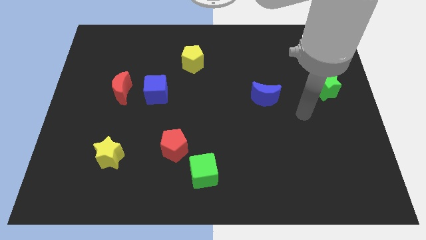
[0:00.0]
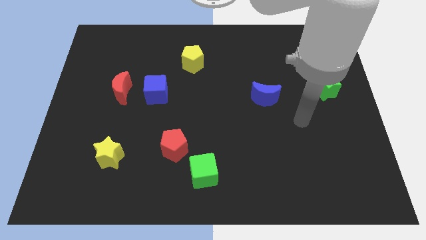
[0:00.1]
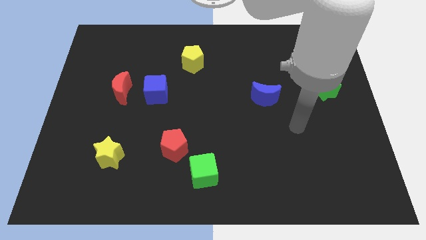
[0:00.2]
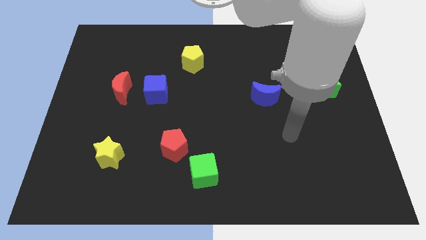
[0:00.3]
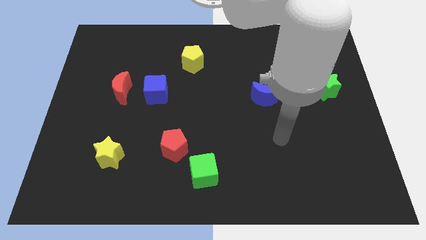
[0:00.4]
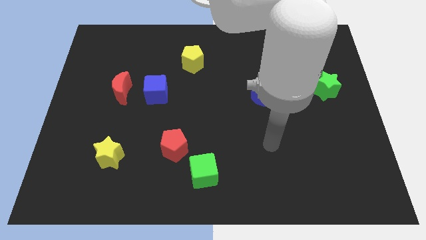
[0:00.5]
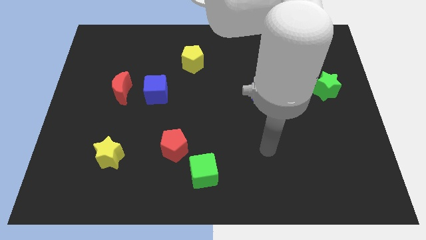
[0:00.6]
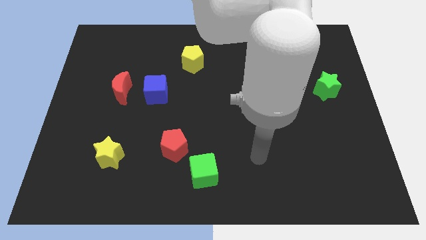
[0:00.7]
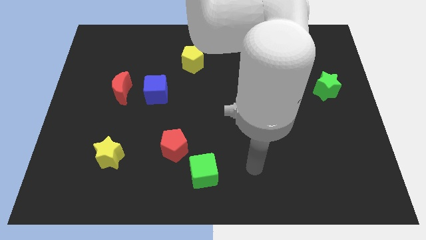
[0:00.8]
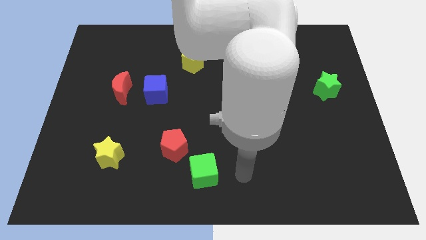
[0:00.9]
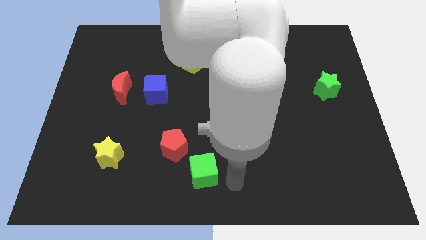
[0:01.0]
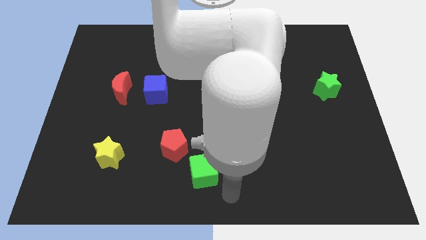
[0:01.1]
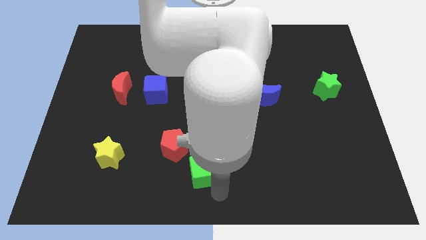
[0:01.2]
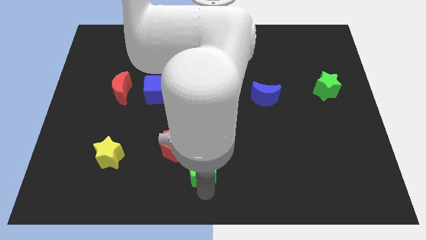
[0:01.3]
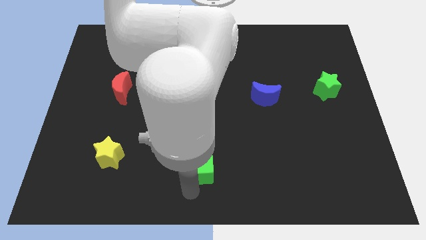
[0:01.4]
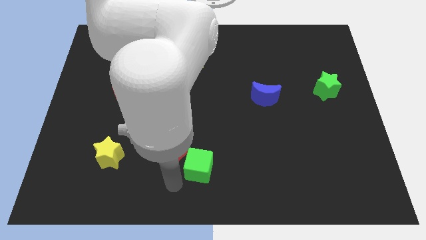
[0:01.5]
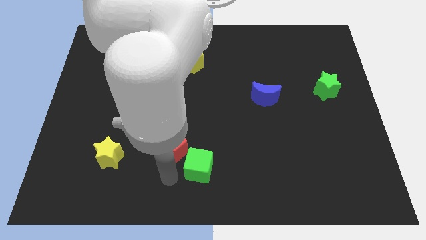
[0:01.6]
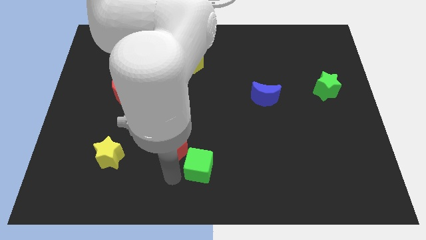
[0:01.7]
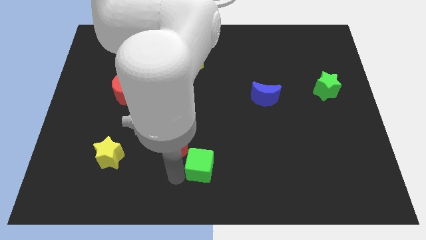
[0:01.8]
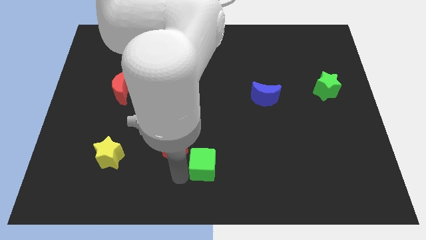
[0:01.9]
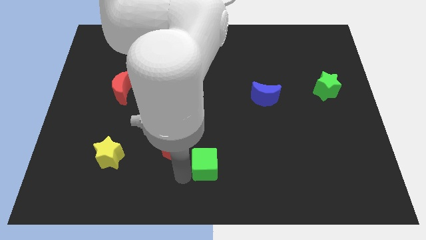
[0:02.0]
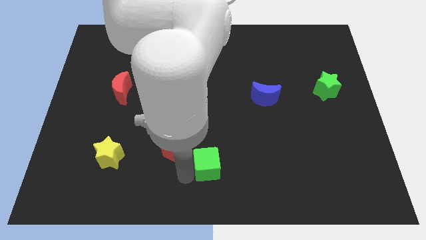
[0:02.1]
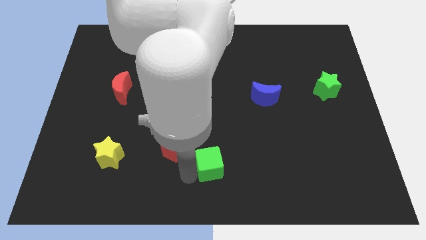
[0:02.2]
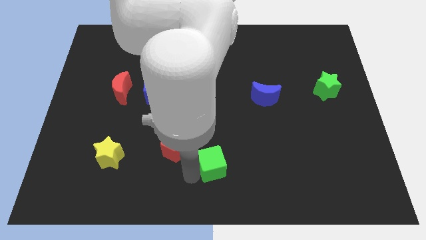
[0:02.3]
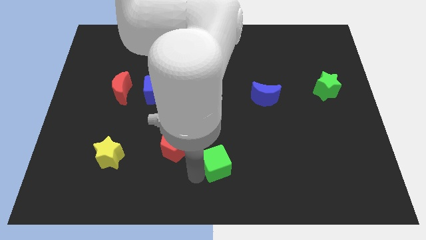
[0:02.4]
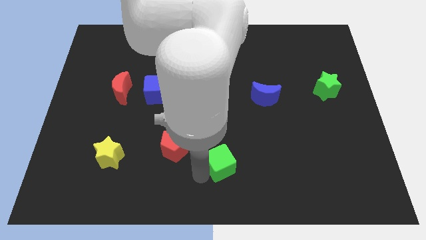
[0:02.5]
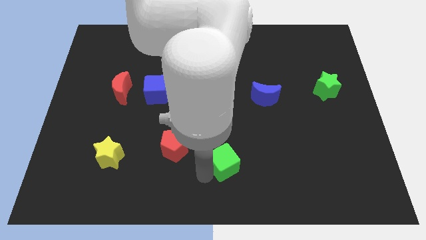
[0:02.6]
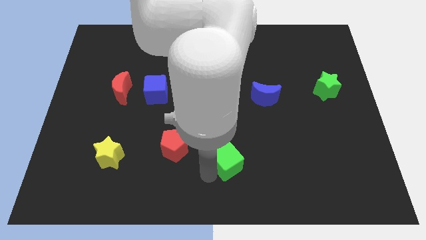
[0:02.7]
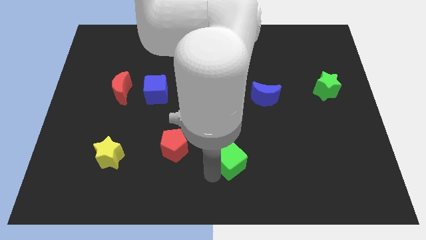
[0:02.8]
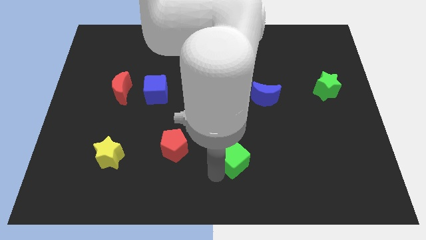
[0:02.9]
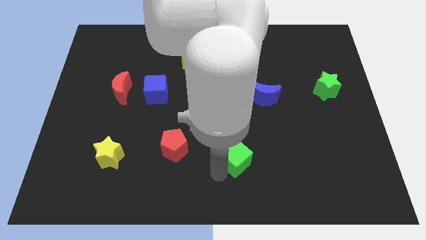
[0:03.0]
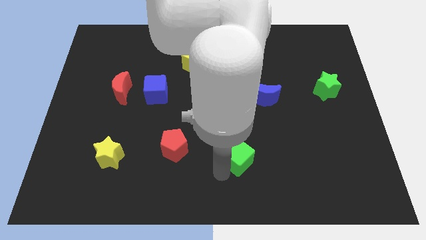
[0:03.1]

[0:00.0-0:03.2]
move the green cube upwards and to the right diagonally slightly

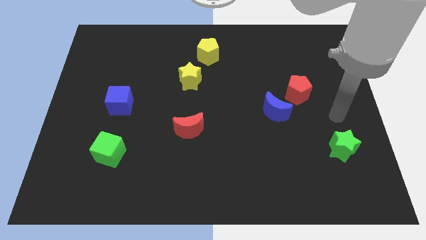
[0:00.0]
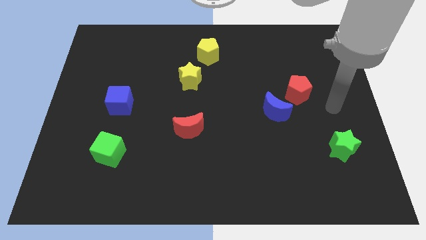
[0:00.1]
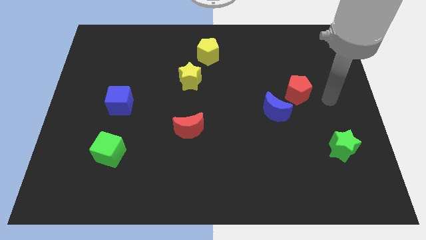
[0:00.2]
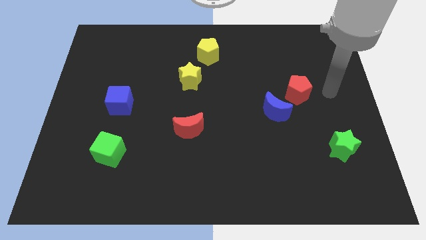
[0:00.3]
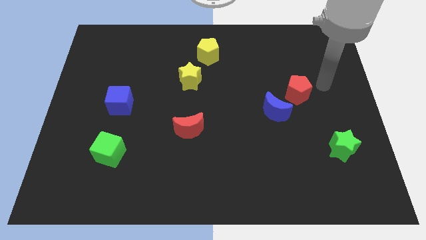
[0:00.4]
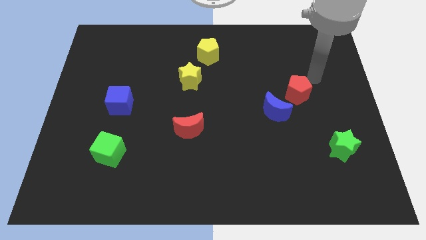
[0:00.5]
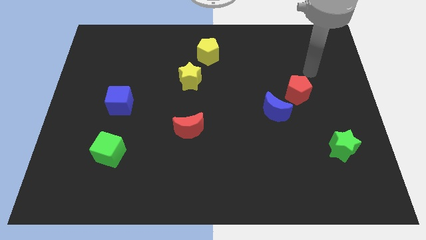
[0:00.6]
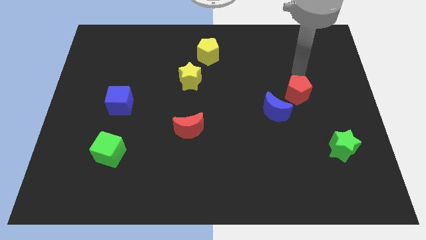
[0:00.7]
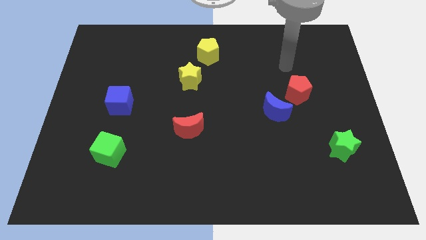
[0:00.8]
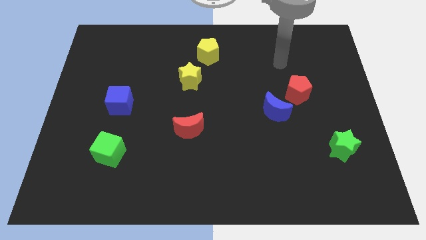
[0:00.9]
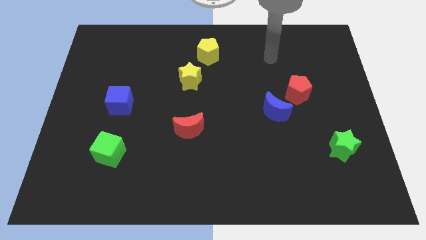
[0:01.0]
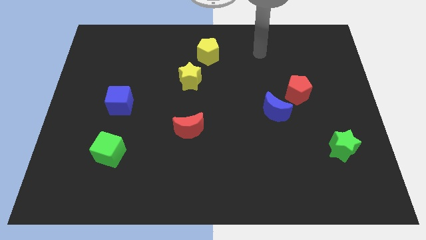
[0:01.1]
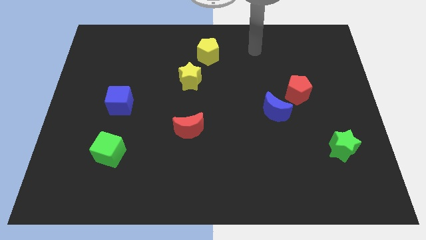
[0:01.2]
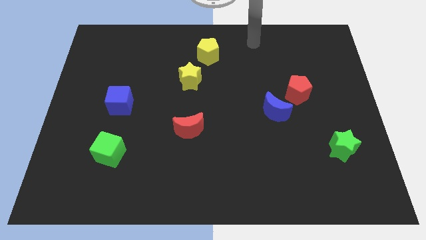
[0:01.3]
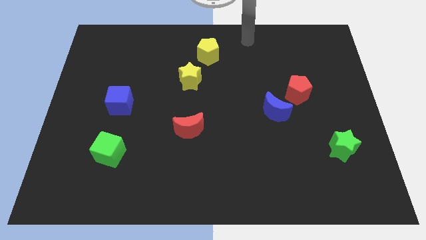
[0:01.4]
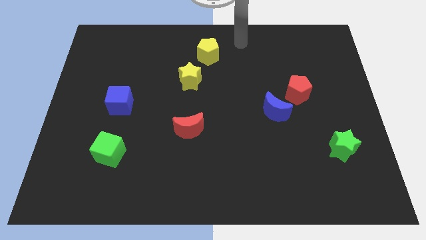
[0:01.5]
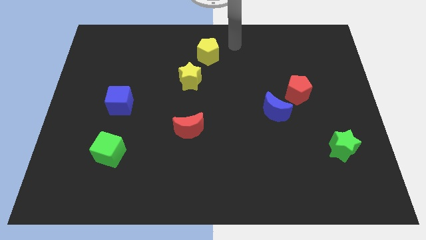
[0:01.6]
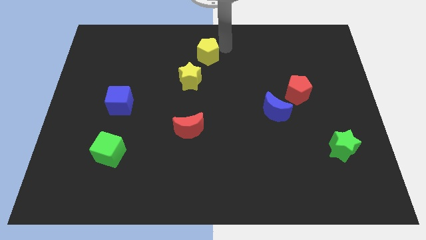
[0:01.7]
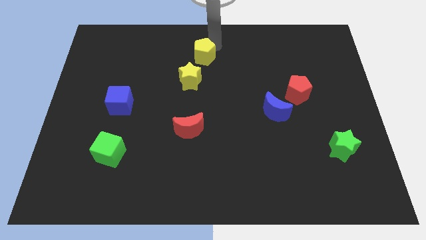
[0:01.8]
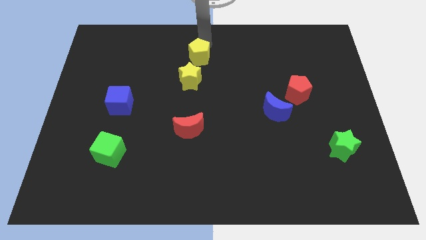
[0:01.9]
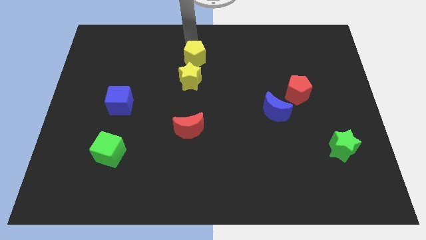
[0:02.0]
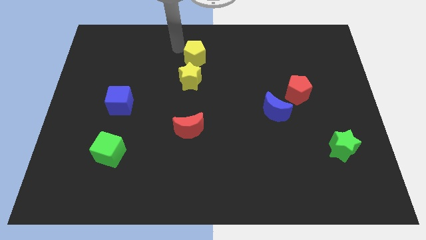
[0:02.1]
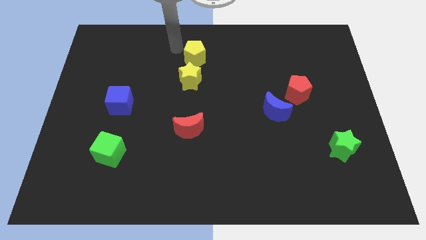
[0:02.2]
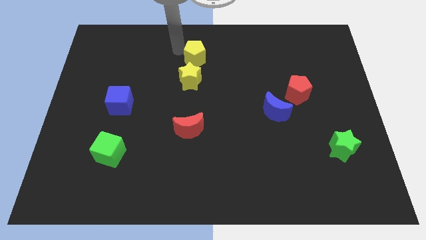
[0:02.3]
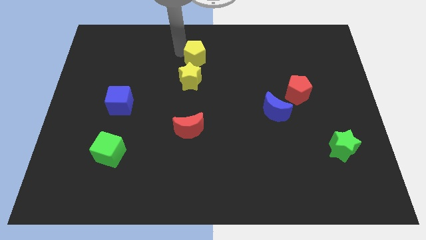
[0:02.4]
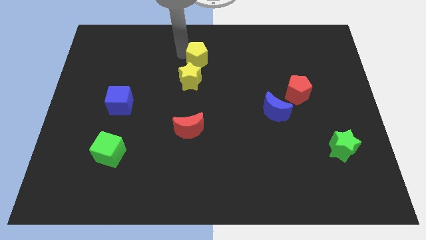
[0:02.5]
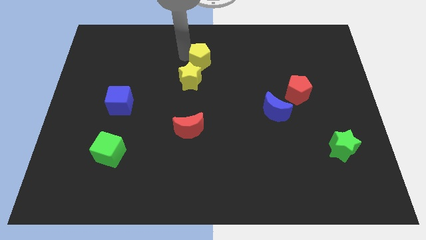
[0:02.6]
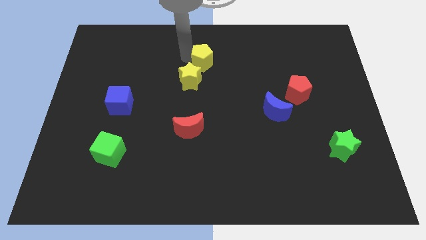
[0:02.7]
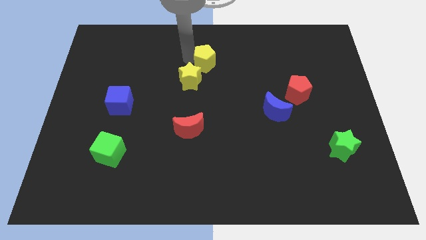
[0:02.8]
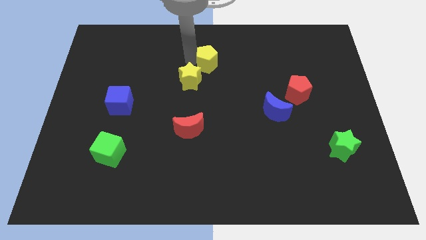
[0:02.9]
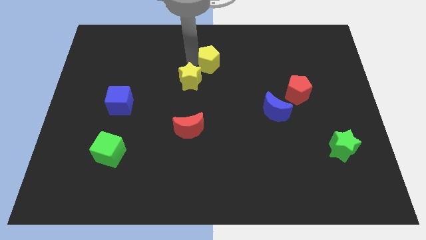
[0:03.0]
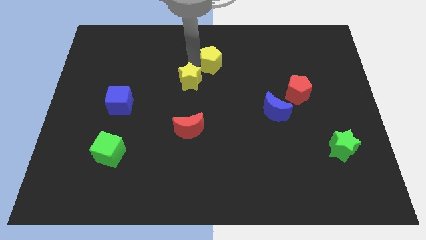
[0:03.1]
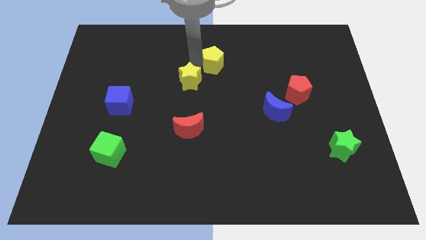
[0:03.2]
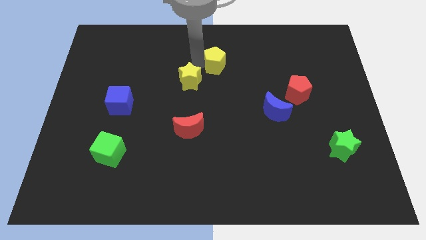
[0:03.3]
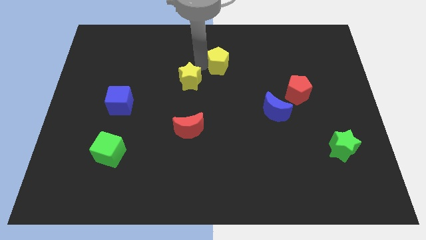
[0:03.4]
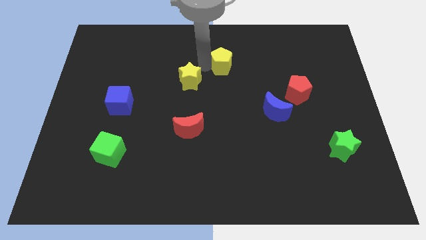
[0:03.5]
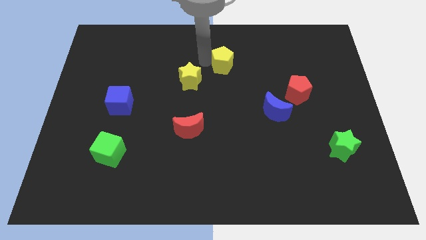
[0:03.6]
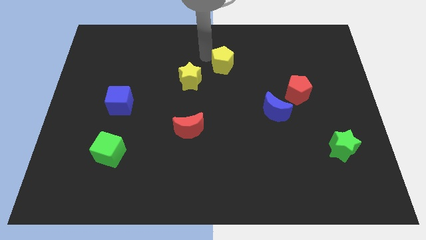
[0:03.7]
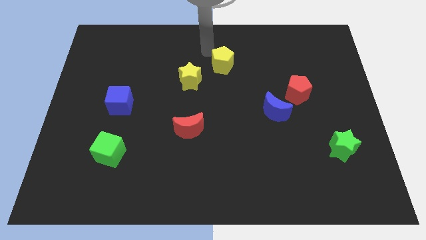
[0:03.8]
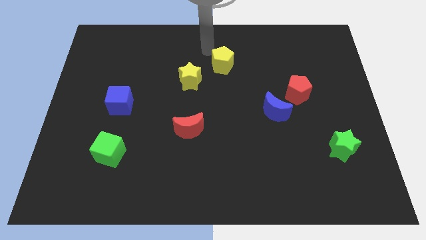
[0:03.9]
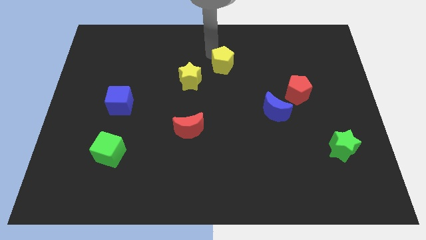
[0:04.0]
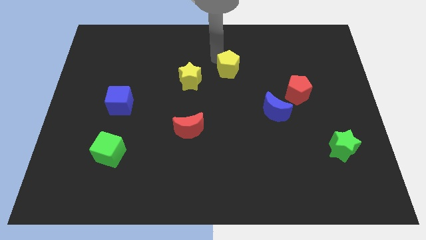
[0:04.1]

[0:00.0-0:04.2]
slide the yellow pentagon a little bit diagonally downwards and to the right

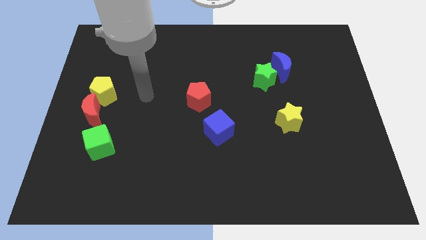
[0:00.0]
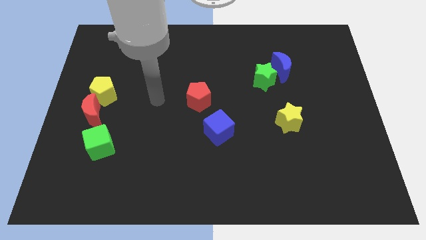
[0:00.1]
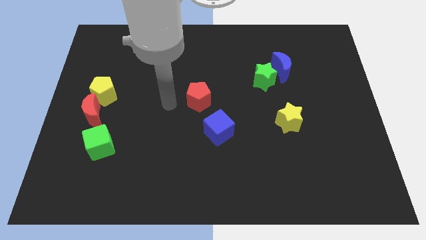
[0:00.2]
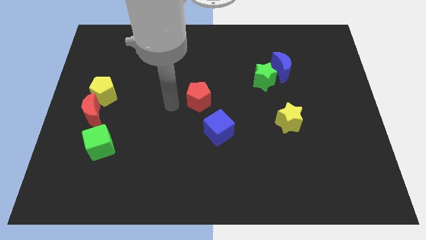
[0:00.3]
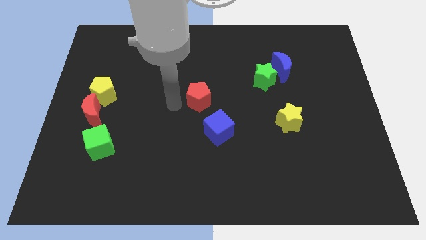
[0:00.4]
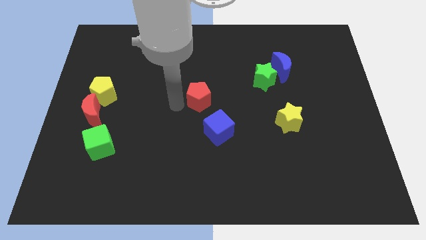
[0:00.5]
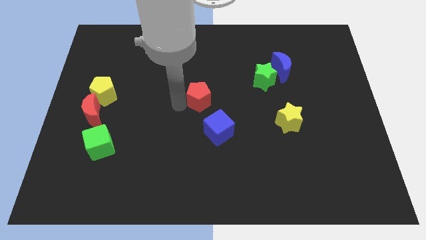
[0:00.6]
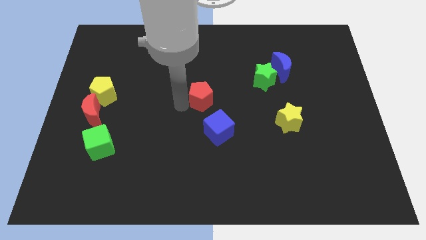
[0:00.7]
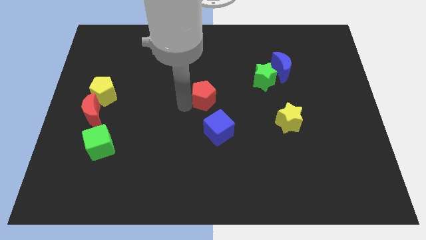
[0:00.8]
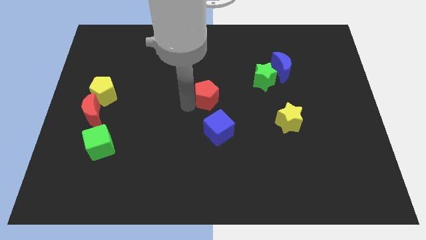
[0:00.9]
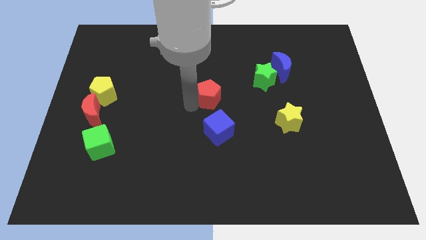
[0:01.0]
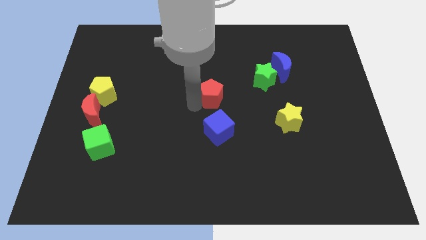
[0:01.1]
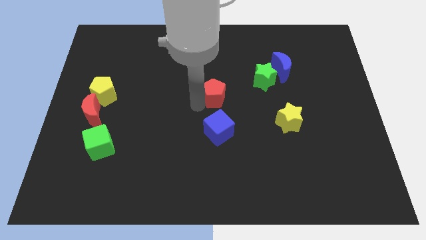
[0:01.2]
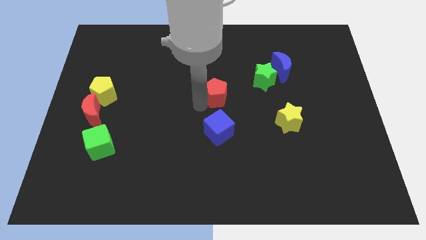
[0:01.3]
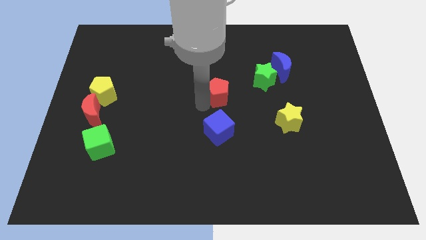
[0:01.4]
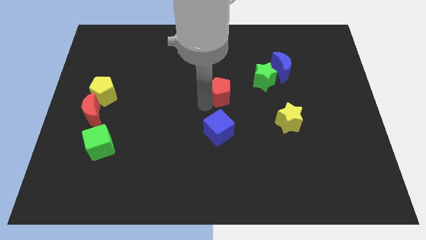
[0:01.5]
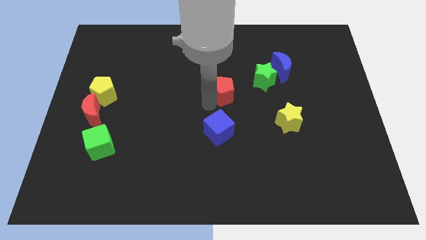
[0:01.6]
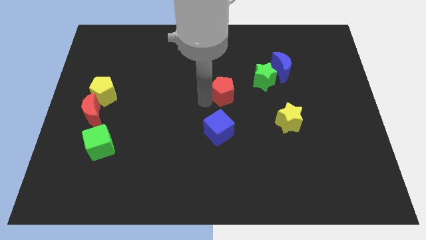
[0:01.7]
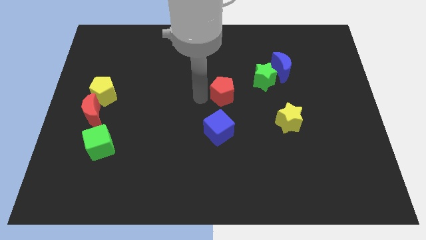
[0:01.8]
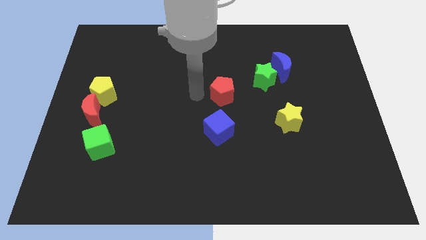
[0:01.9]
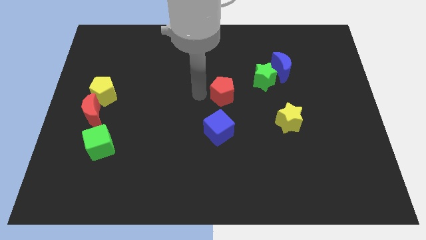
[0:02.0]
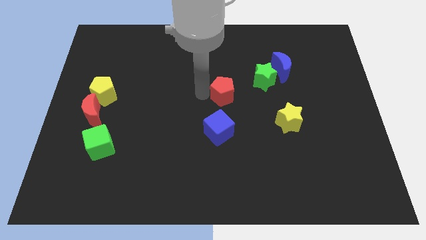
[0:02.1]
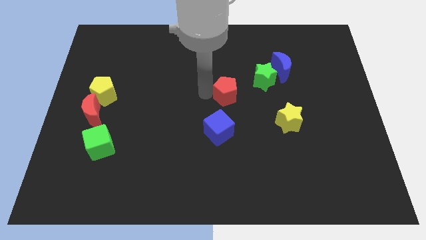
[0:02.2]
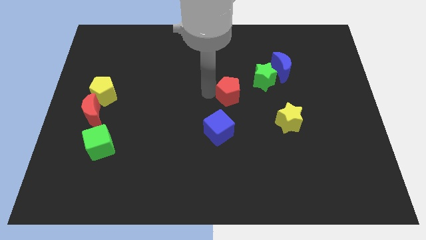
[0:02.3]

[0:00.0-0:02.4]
push the red pentagon a little bit right
